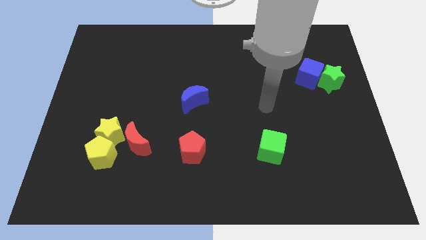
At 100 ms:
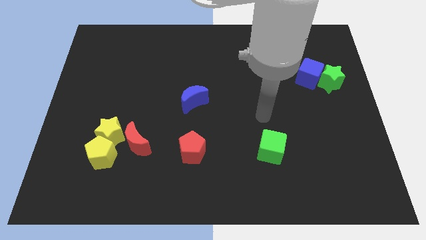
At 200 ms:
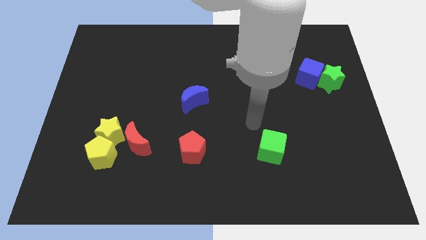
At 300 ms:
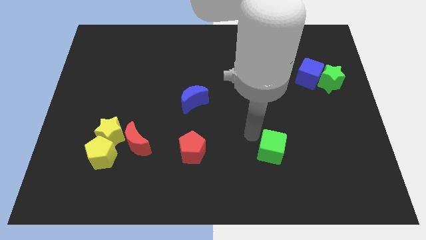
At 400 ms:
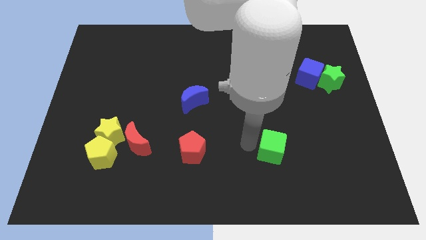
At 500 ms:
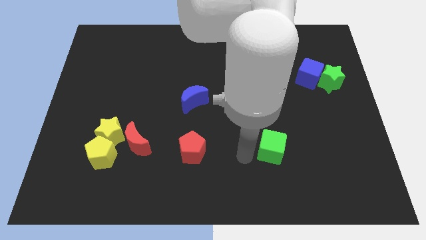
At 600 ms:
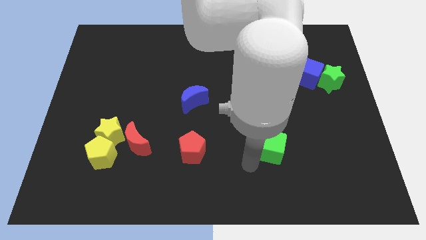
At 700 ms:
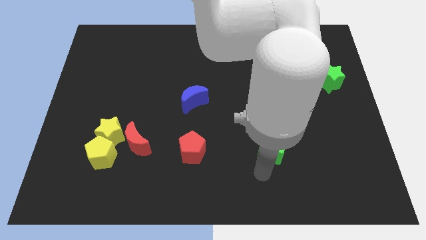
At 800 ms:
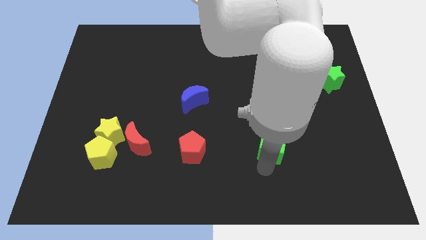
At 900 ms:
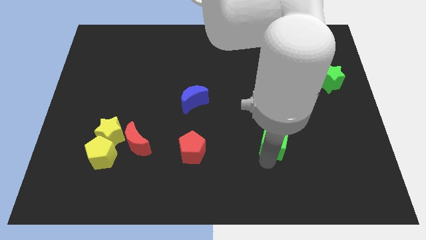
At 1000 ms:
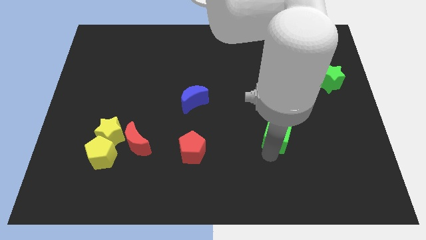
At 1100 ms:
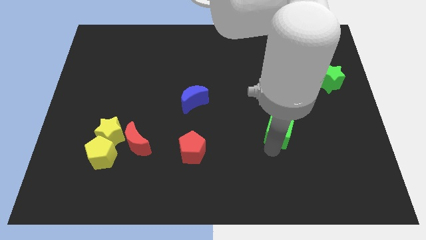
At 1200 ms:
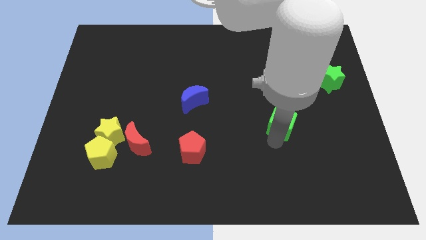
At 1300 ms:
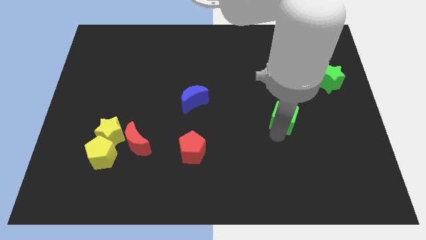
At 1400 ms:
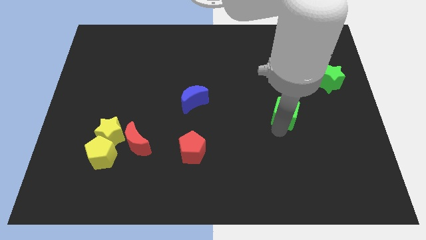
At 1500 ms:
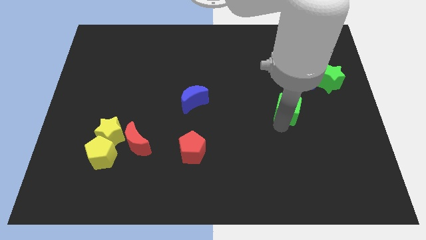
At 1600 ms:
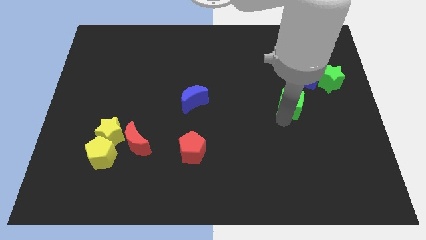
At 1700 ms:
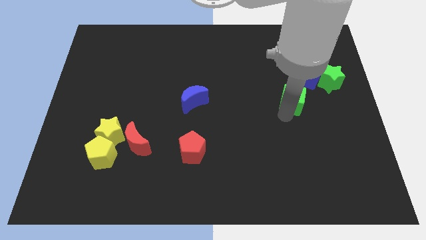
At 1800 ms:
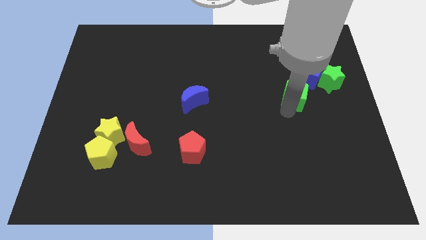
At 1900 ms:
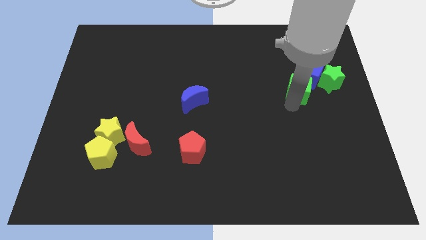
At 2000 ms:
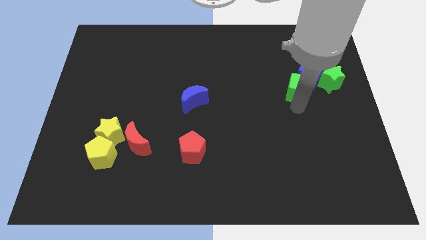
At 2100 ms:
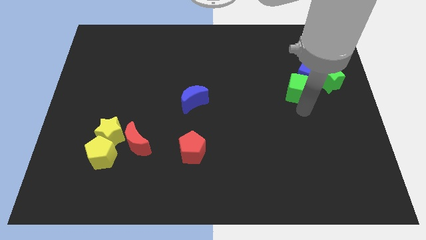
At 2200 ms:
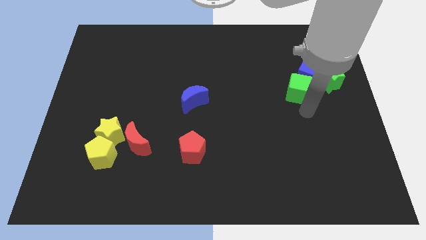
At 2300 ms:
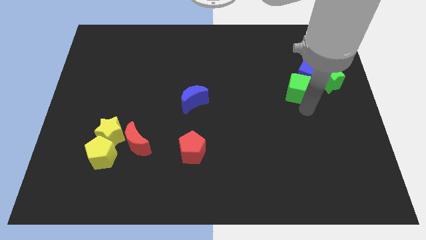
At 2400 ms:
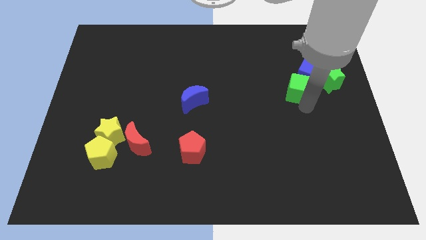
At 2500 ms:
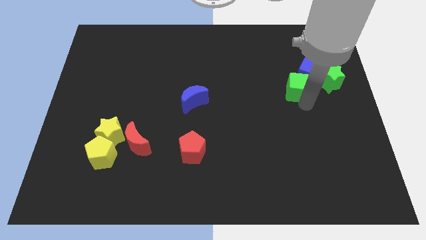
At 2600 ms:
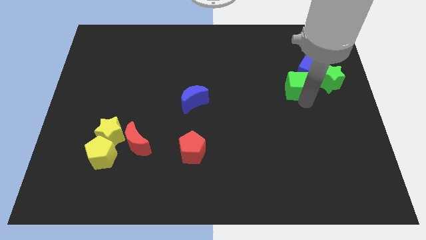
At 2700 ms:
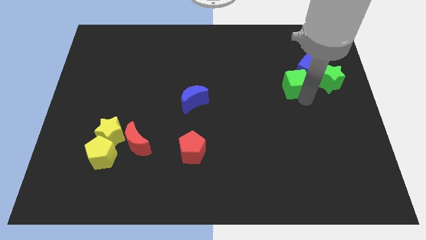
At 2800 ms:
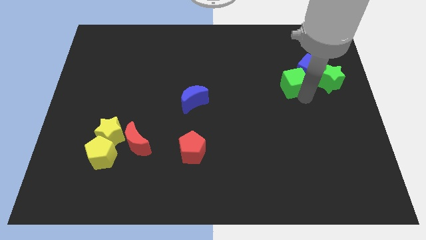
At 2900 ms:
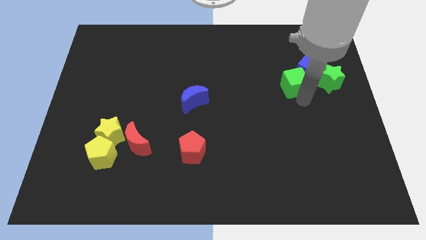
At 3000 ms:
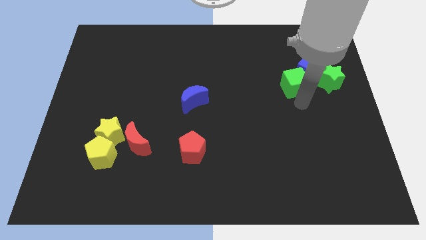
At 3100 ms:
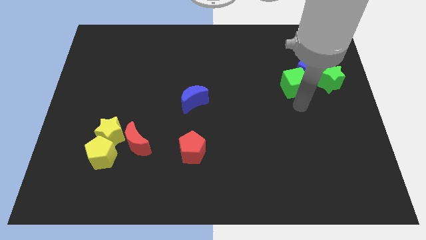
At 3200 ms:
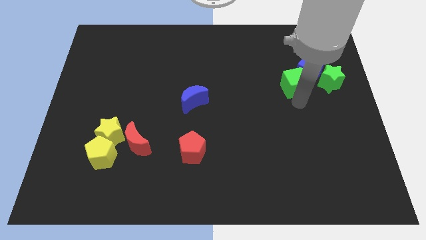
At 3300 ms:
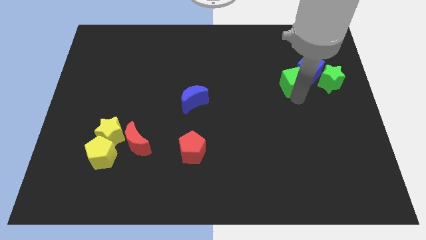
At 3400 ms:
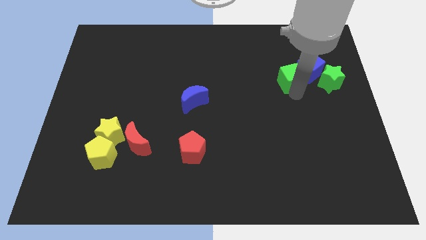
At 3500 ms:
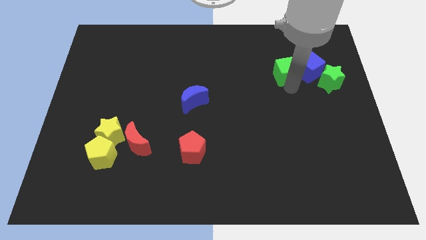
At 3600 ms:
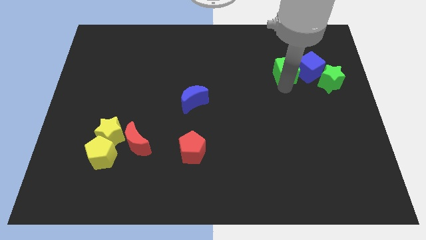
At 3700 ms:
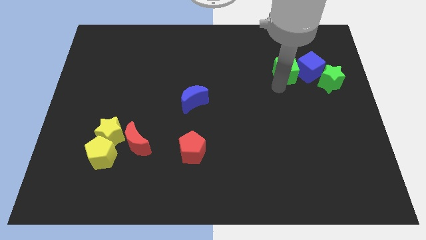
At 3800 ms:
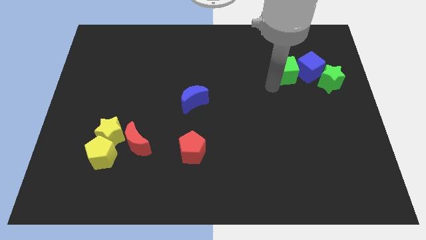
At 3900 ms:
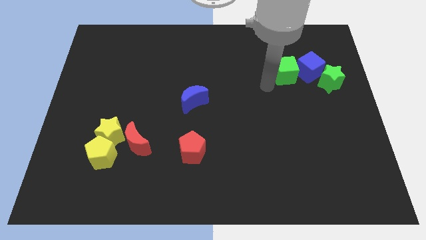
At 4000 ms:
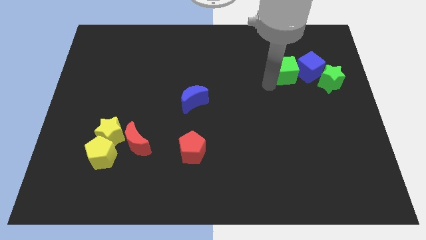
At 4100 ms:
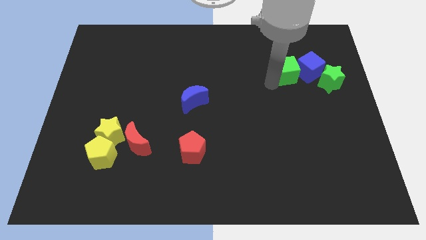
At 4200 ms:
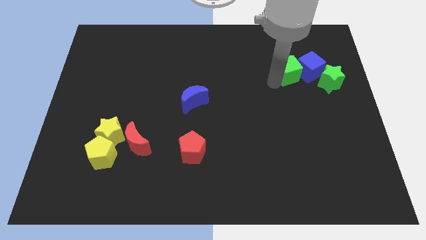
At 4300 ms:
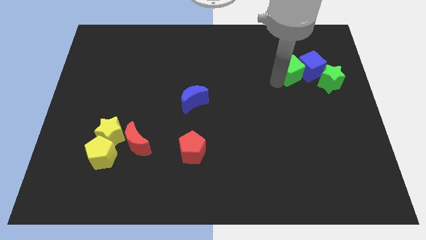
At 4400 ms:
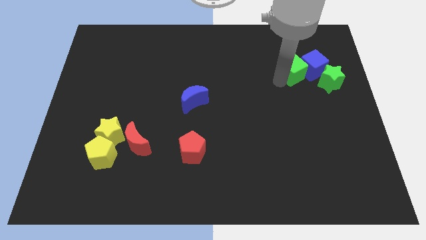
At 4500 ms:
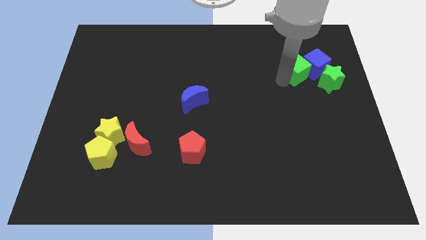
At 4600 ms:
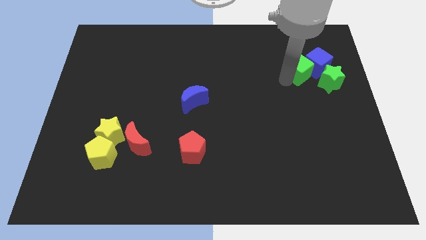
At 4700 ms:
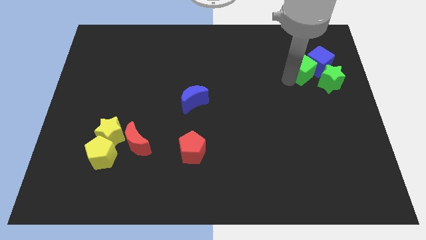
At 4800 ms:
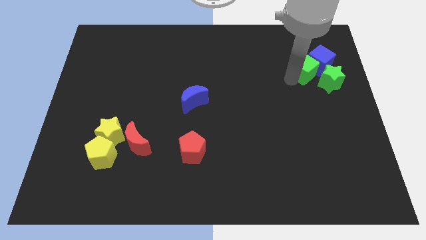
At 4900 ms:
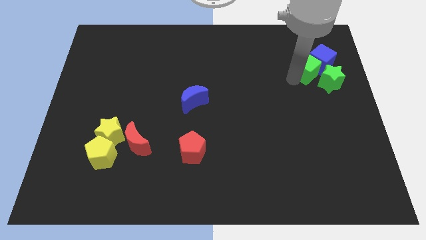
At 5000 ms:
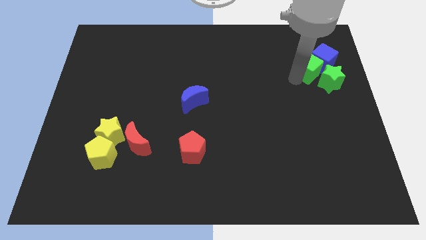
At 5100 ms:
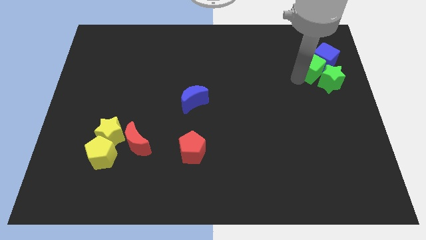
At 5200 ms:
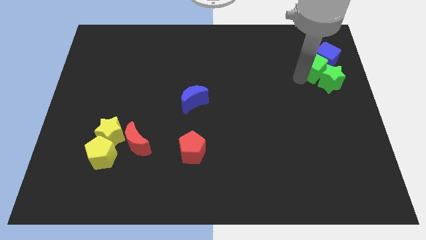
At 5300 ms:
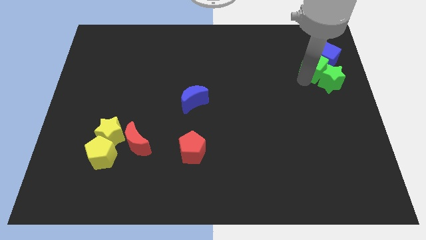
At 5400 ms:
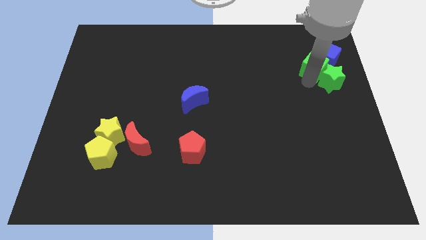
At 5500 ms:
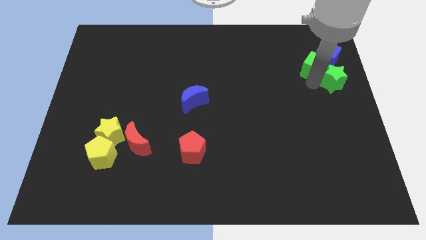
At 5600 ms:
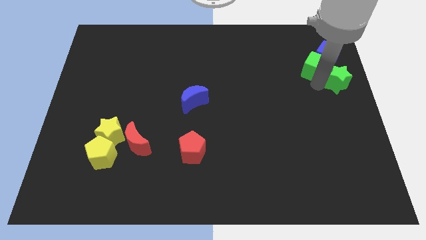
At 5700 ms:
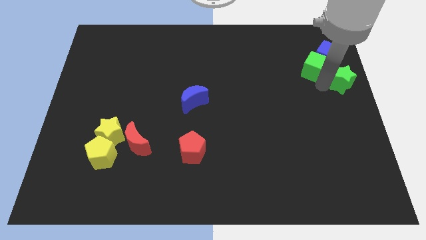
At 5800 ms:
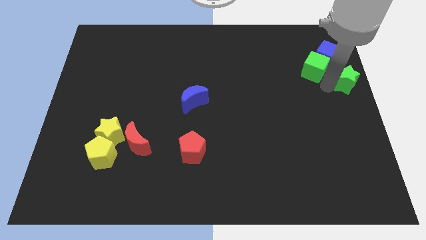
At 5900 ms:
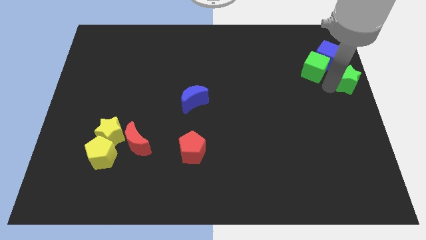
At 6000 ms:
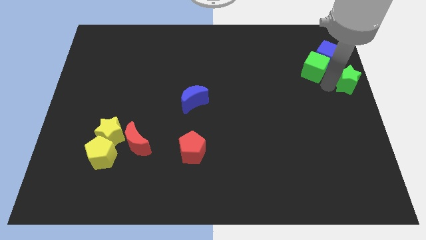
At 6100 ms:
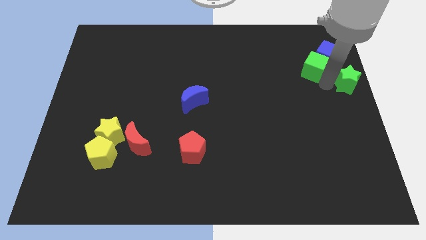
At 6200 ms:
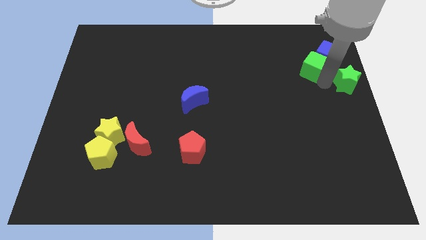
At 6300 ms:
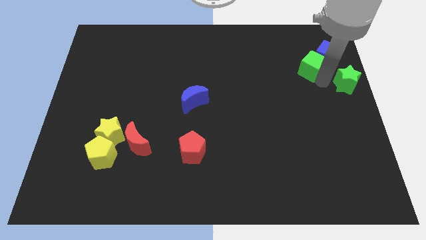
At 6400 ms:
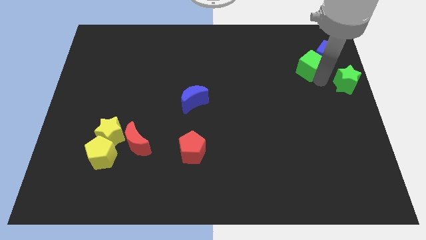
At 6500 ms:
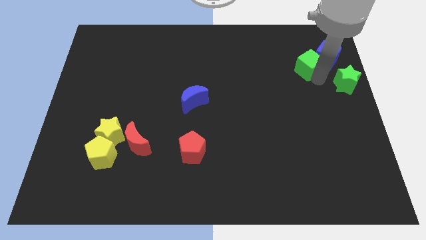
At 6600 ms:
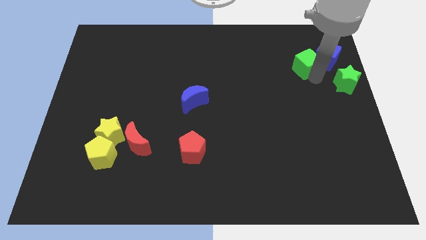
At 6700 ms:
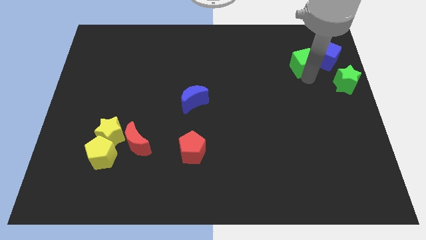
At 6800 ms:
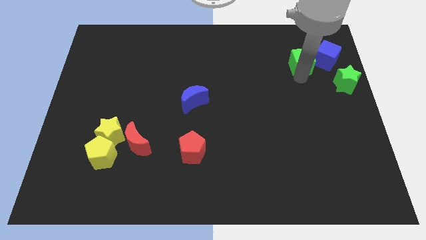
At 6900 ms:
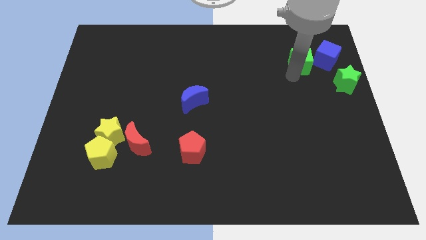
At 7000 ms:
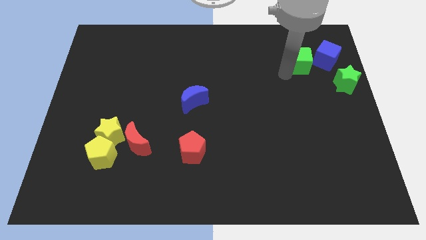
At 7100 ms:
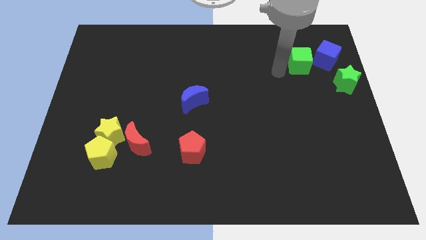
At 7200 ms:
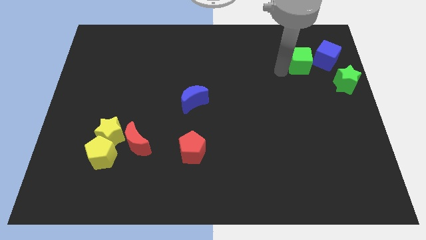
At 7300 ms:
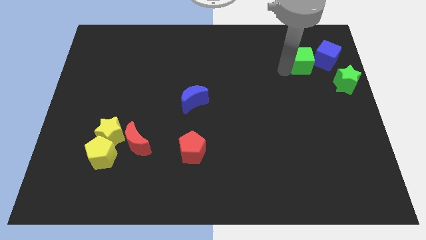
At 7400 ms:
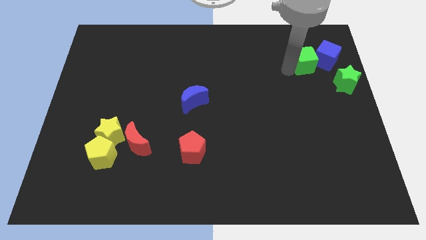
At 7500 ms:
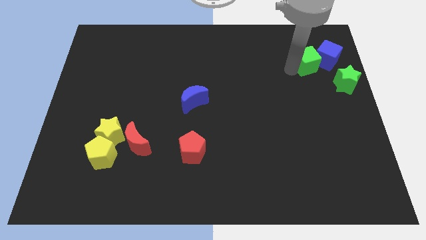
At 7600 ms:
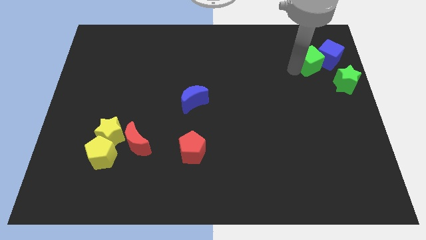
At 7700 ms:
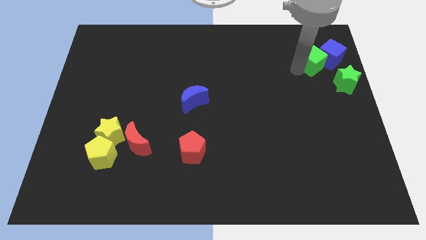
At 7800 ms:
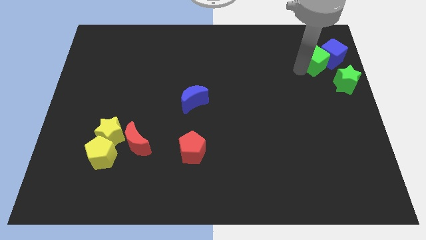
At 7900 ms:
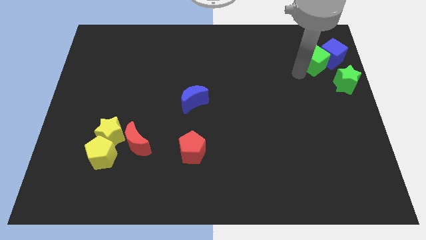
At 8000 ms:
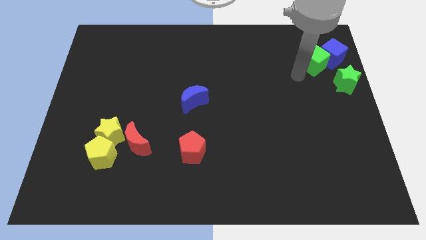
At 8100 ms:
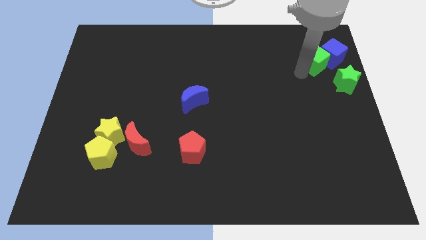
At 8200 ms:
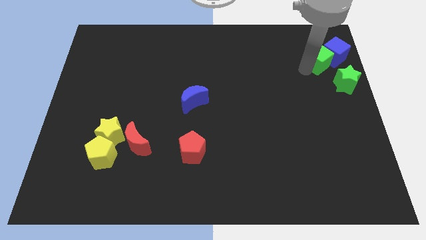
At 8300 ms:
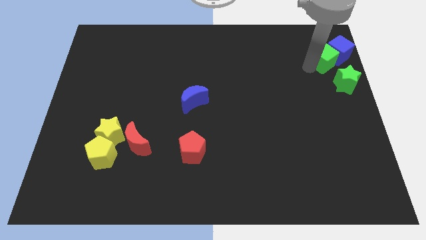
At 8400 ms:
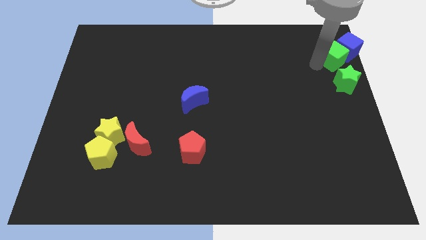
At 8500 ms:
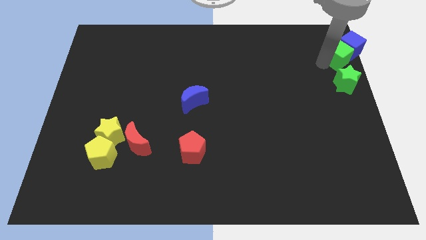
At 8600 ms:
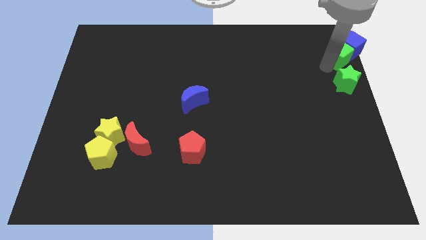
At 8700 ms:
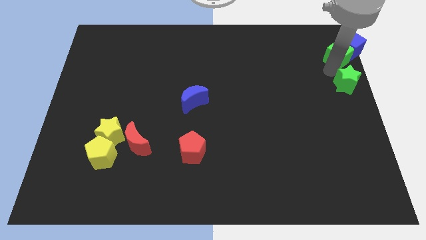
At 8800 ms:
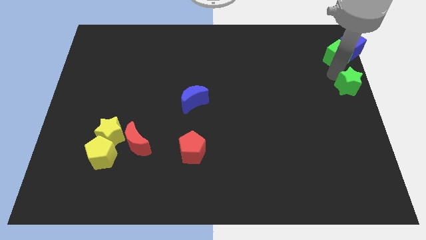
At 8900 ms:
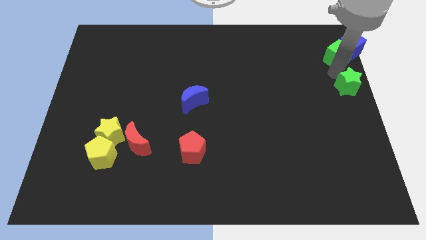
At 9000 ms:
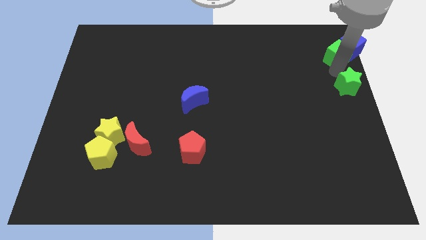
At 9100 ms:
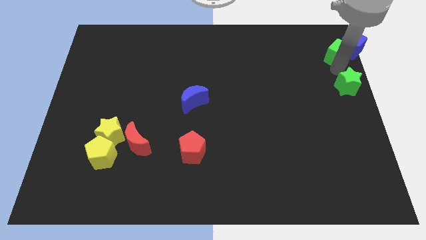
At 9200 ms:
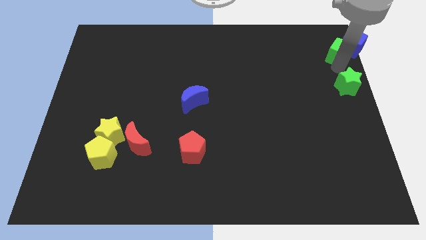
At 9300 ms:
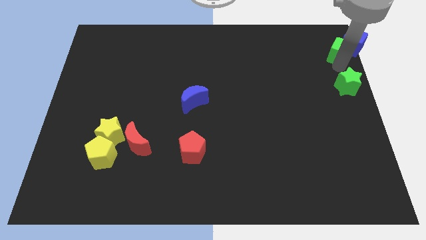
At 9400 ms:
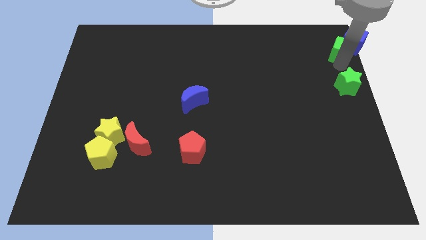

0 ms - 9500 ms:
push the green cube to the top right corner
